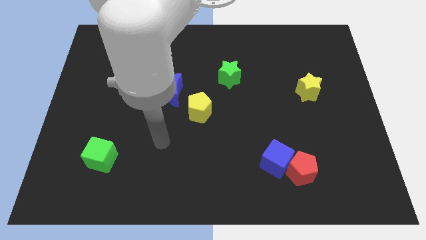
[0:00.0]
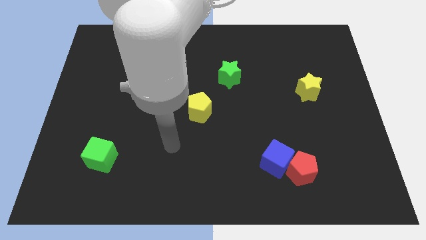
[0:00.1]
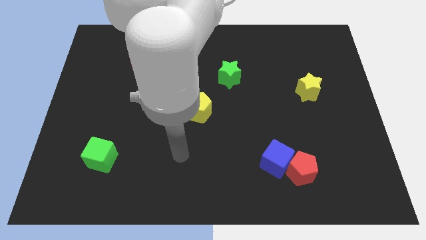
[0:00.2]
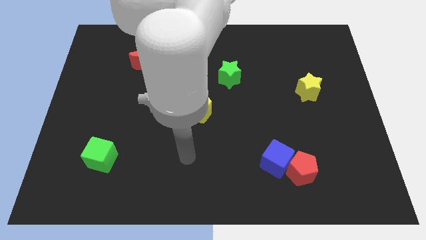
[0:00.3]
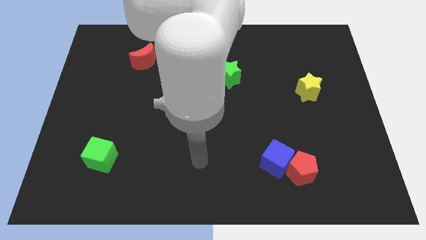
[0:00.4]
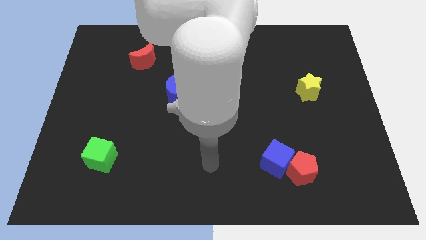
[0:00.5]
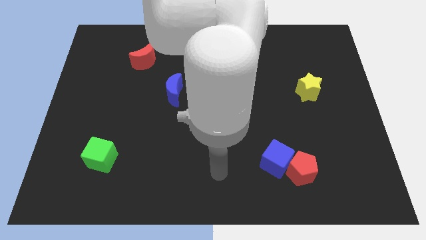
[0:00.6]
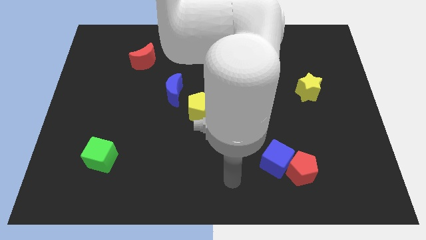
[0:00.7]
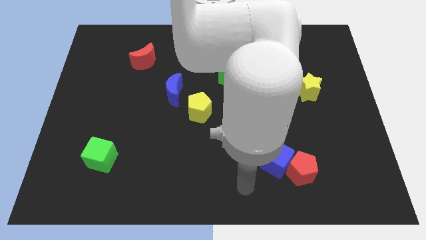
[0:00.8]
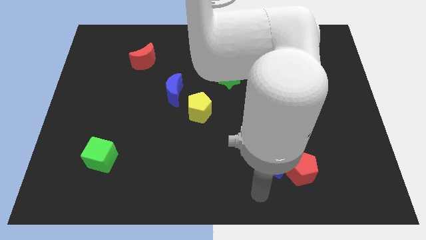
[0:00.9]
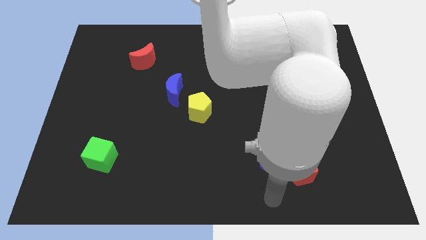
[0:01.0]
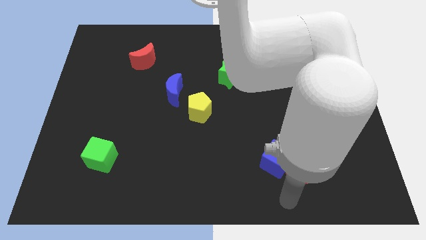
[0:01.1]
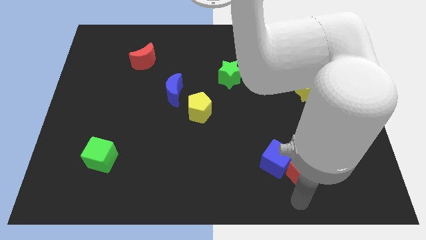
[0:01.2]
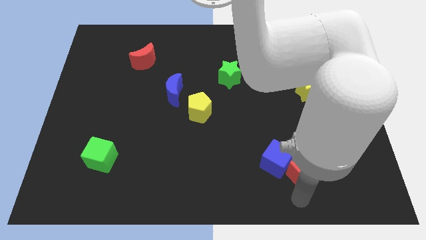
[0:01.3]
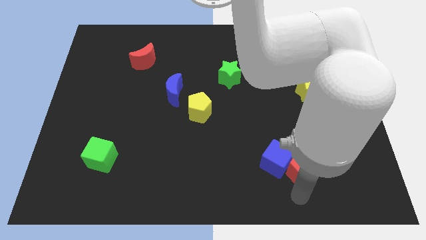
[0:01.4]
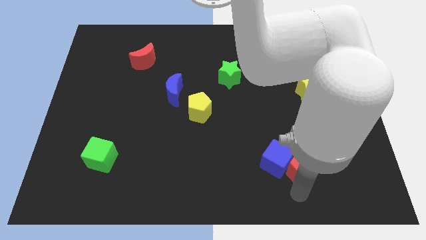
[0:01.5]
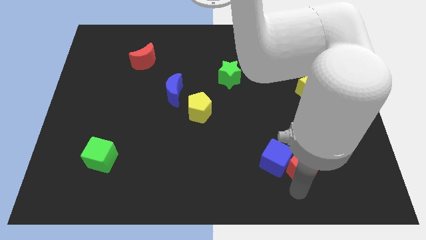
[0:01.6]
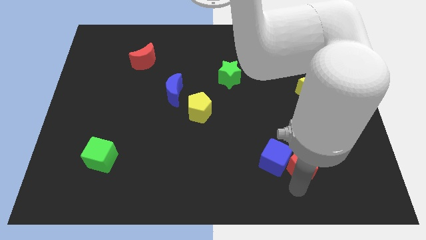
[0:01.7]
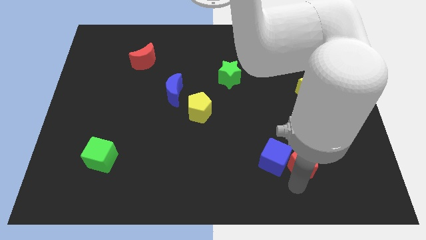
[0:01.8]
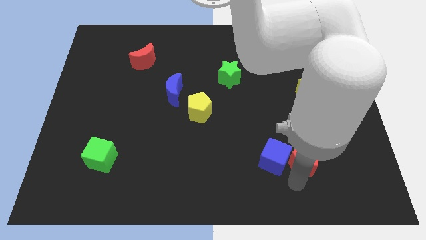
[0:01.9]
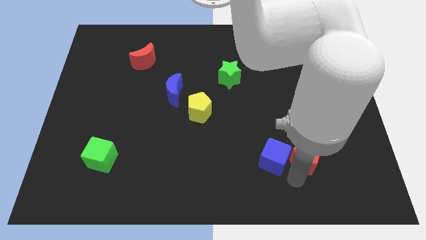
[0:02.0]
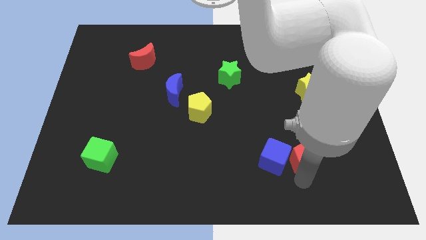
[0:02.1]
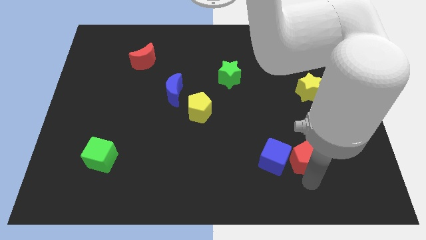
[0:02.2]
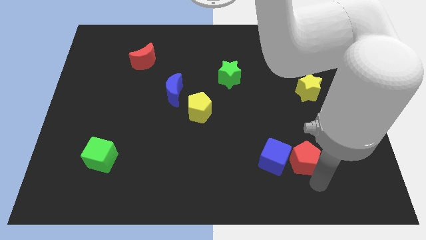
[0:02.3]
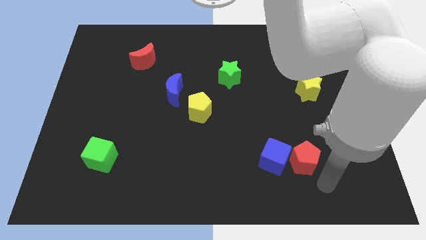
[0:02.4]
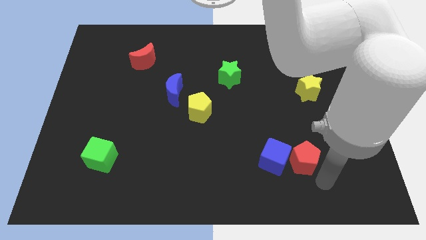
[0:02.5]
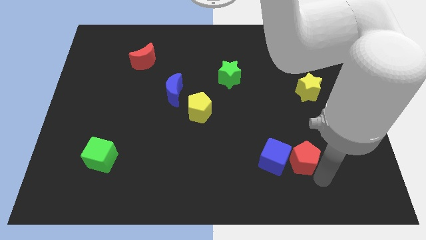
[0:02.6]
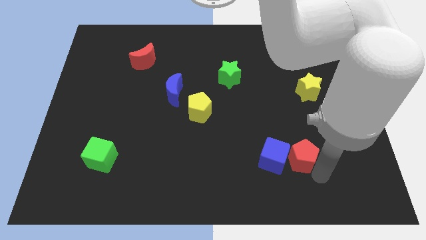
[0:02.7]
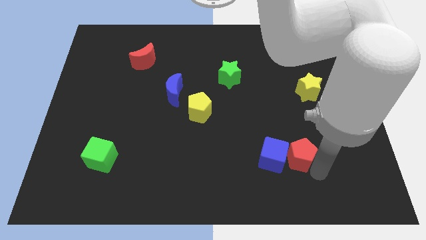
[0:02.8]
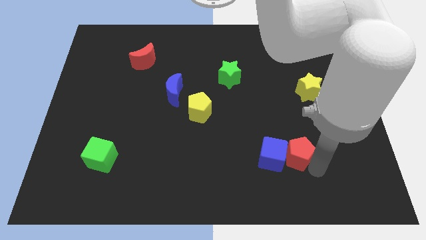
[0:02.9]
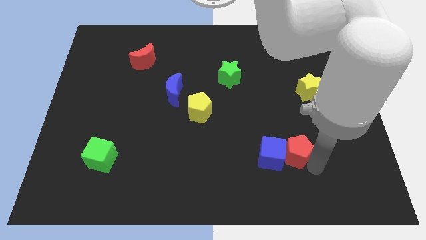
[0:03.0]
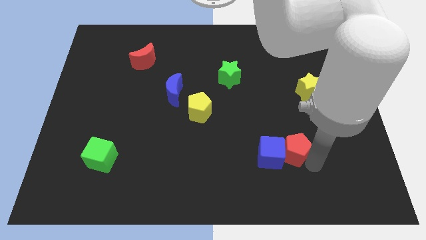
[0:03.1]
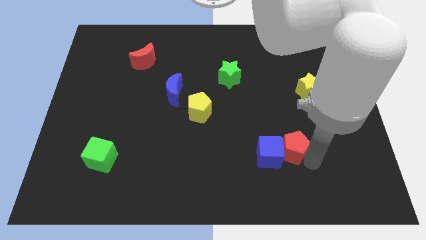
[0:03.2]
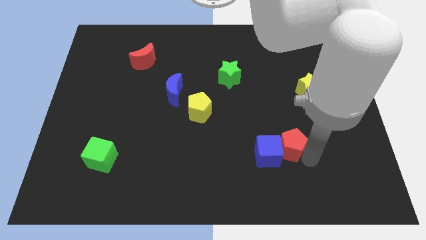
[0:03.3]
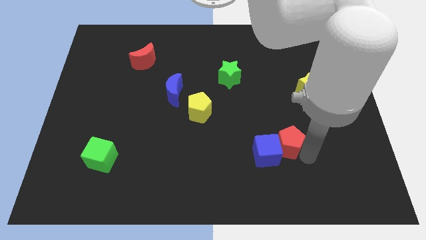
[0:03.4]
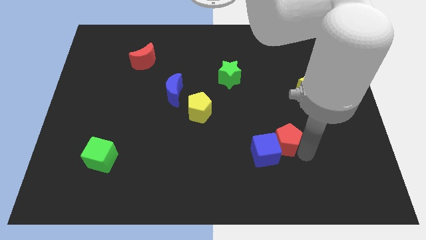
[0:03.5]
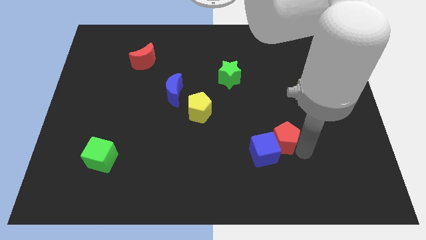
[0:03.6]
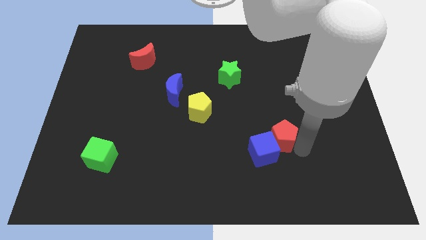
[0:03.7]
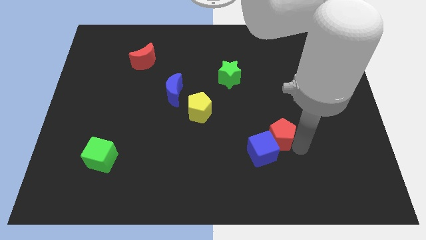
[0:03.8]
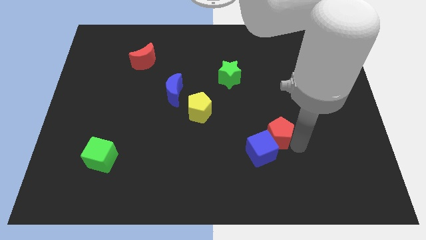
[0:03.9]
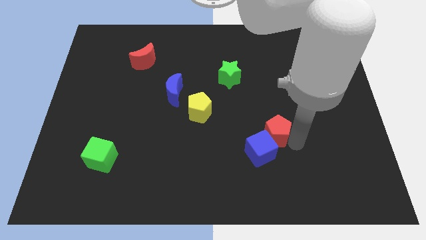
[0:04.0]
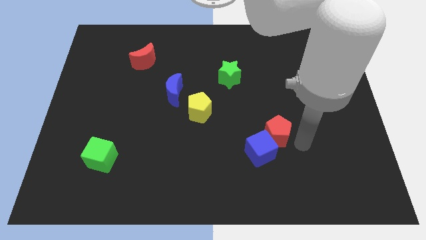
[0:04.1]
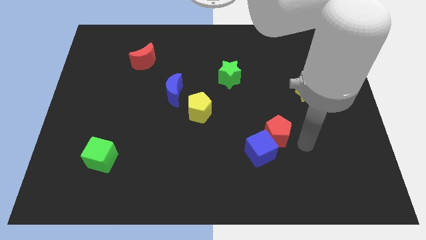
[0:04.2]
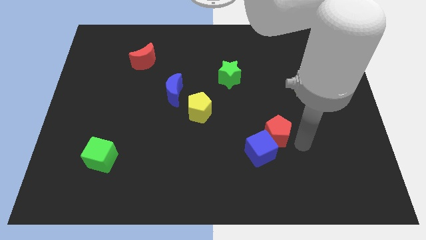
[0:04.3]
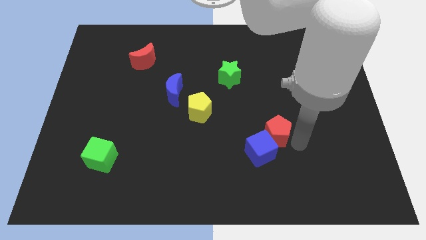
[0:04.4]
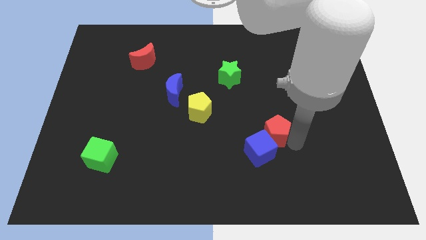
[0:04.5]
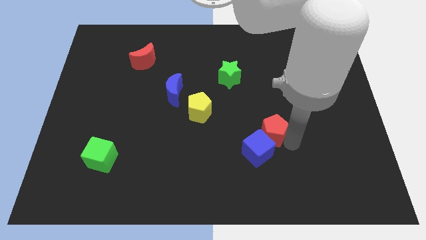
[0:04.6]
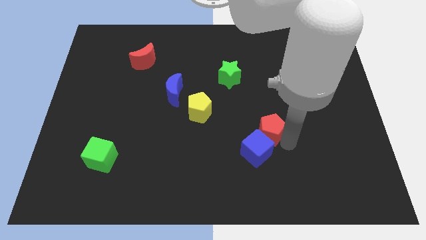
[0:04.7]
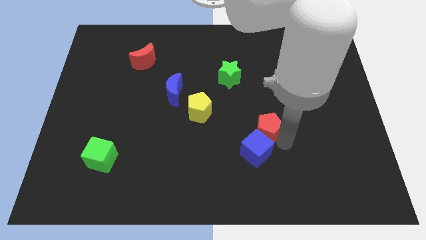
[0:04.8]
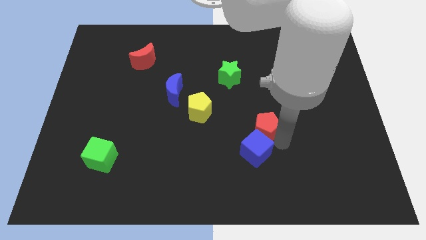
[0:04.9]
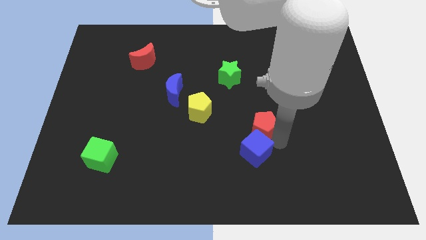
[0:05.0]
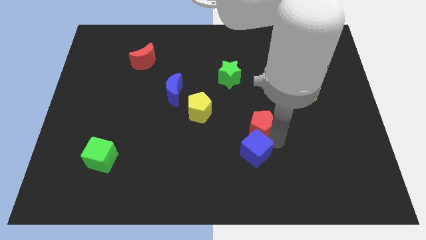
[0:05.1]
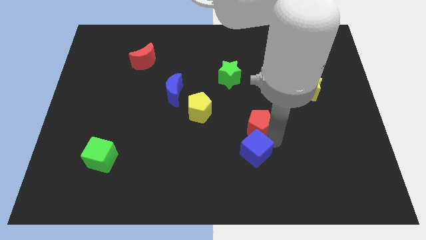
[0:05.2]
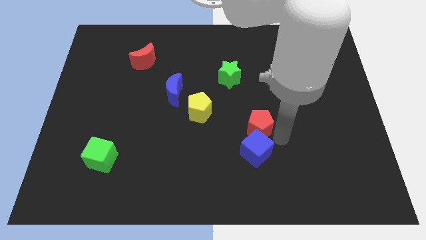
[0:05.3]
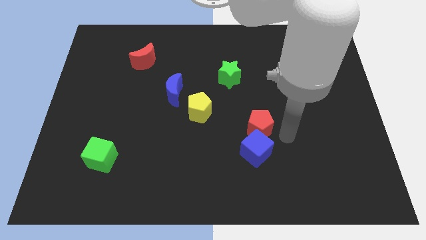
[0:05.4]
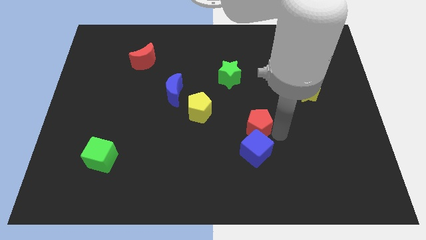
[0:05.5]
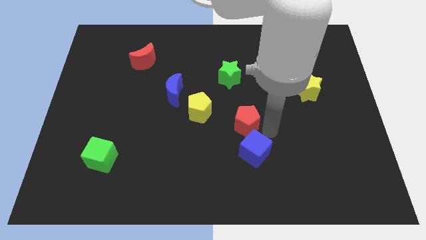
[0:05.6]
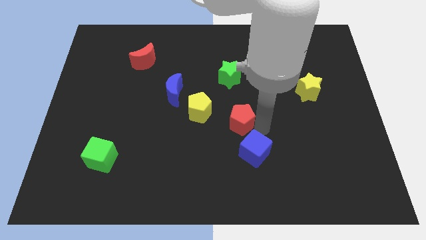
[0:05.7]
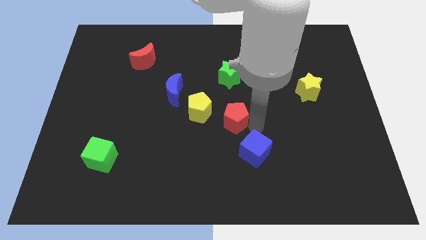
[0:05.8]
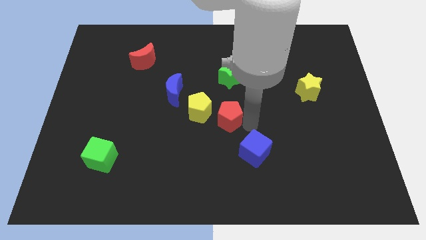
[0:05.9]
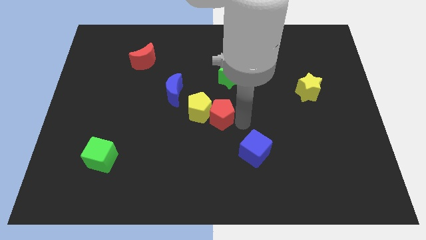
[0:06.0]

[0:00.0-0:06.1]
slide the red pentagon close to the yellow pentagon

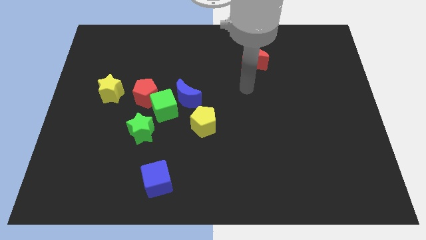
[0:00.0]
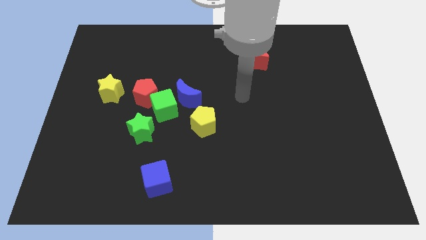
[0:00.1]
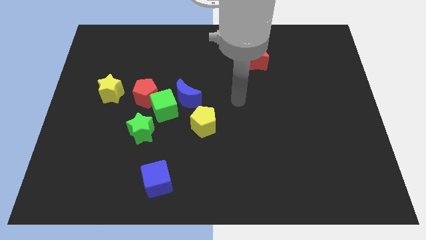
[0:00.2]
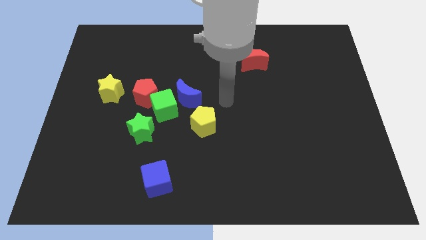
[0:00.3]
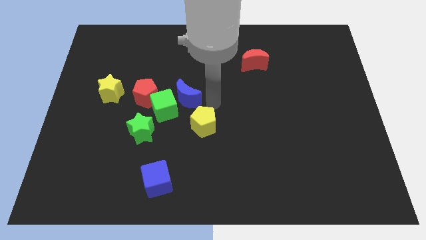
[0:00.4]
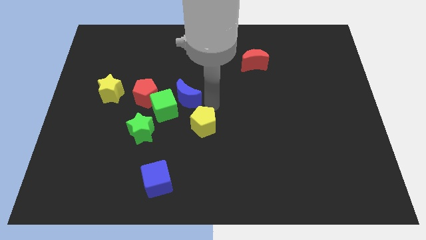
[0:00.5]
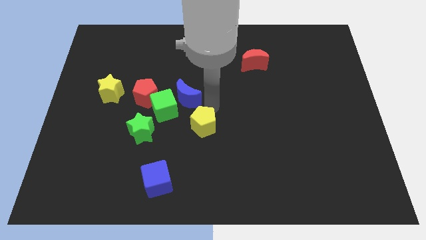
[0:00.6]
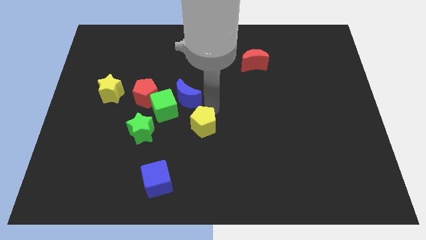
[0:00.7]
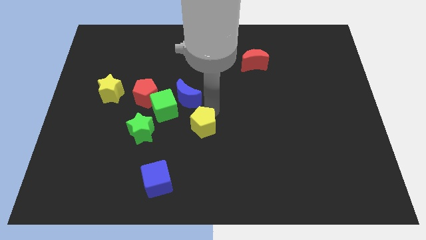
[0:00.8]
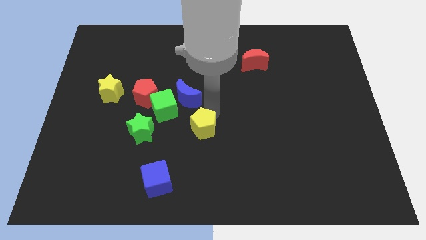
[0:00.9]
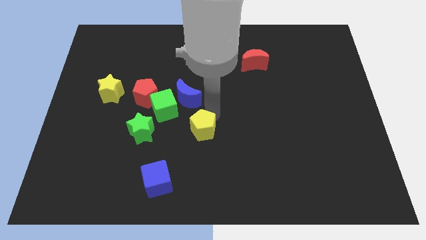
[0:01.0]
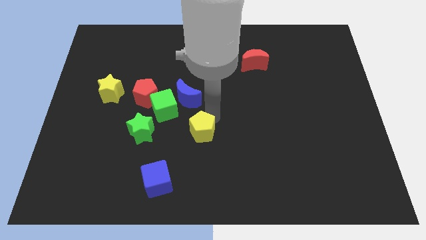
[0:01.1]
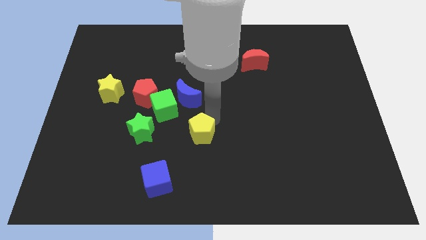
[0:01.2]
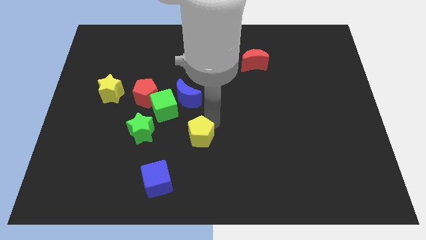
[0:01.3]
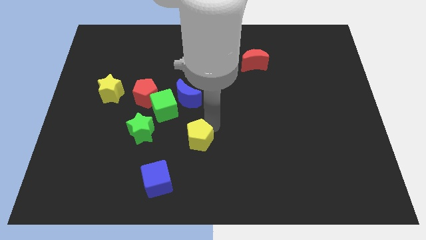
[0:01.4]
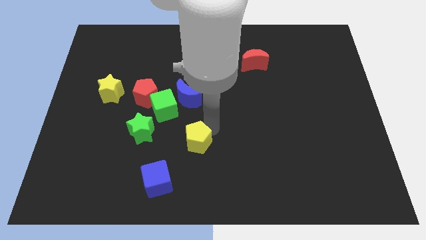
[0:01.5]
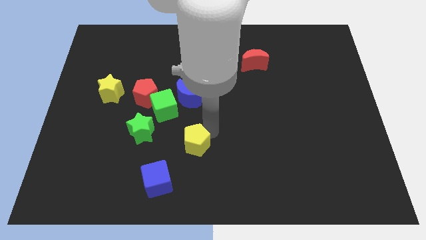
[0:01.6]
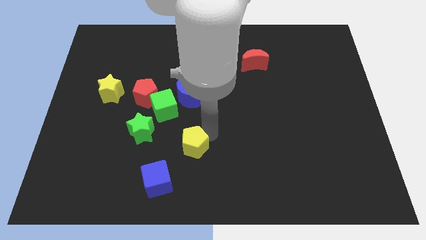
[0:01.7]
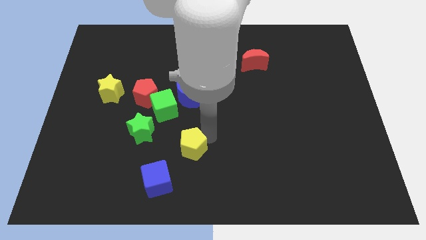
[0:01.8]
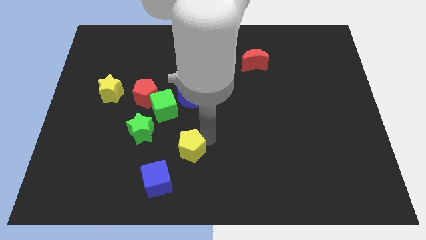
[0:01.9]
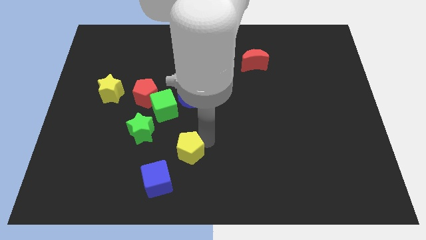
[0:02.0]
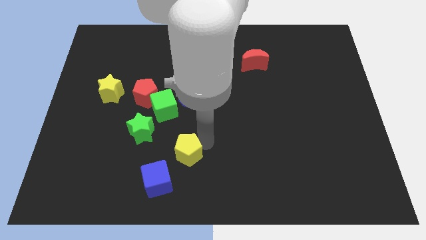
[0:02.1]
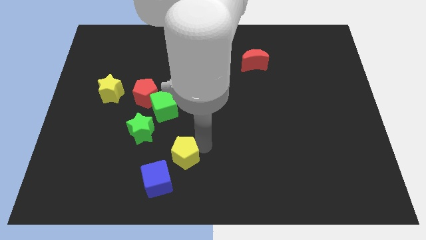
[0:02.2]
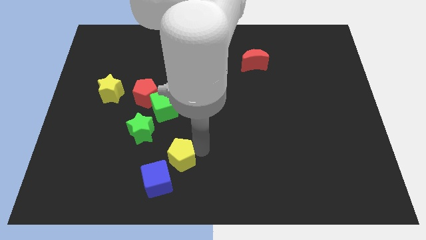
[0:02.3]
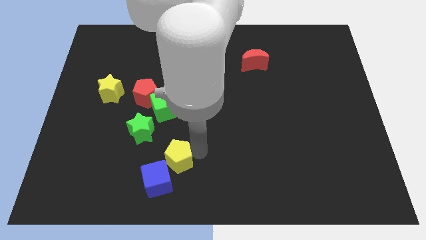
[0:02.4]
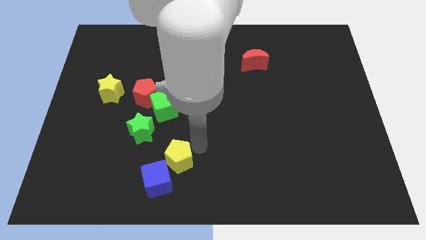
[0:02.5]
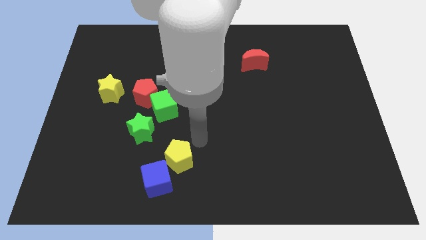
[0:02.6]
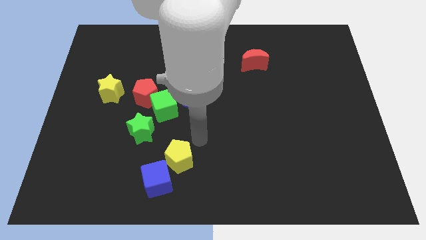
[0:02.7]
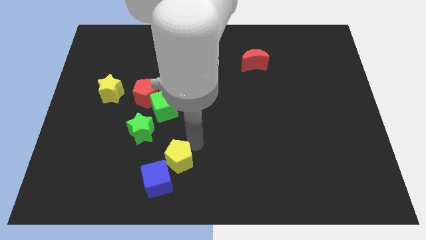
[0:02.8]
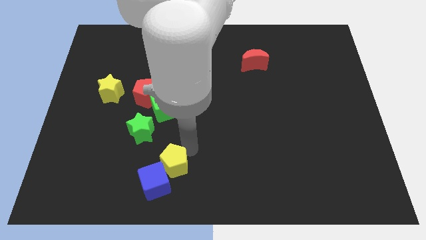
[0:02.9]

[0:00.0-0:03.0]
push the yellow pentagon close to the blue cube
